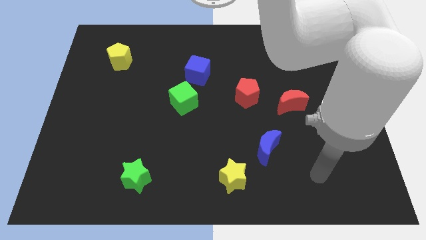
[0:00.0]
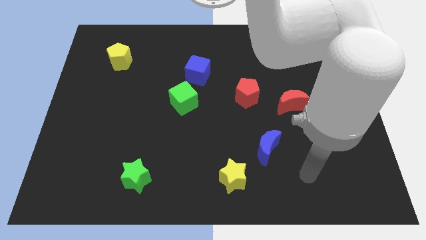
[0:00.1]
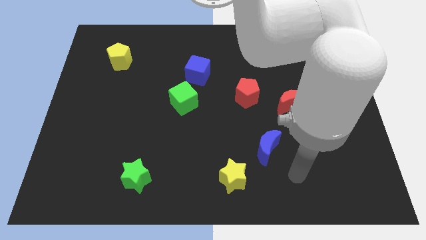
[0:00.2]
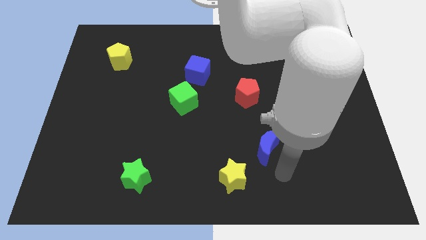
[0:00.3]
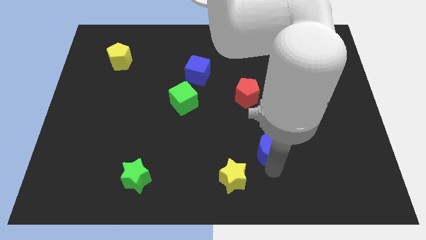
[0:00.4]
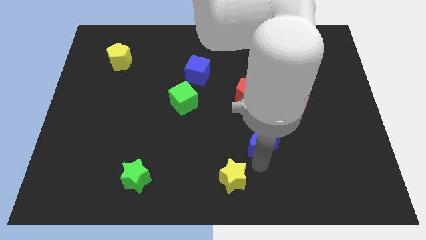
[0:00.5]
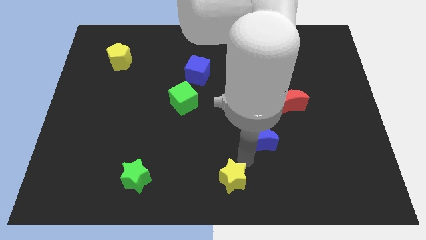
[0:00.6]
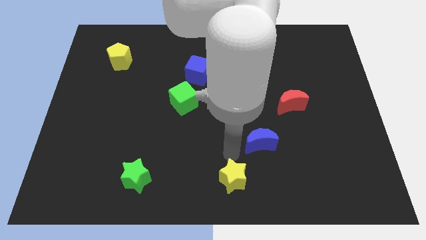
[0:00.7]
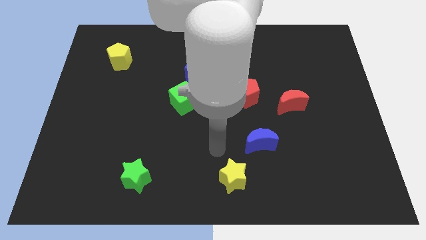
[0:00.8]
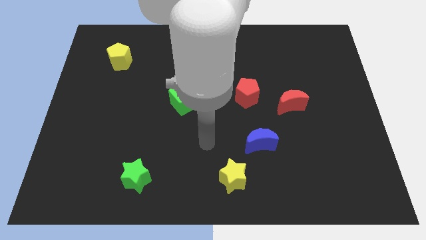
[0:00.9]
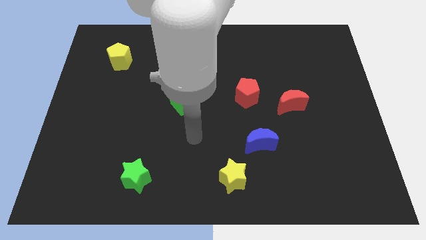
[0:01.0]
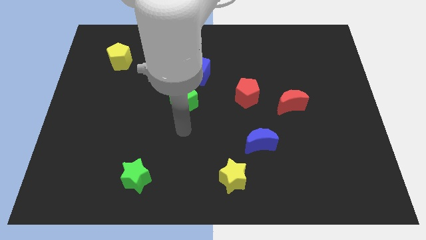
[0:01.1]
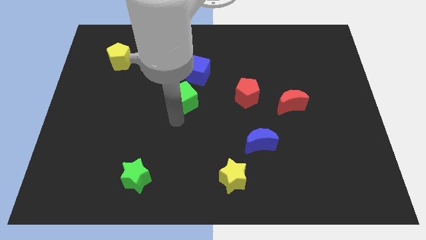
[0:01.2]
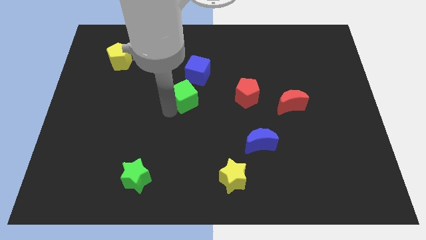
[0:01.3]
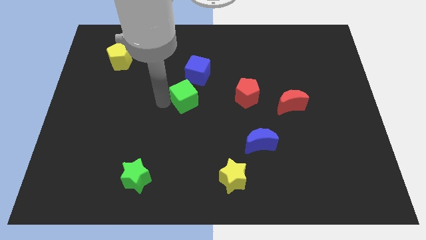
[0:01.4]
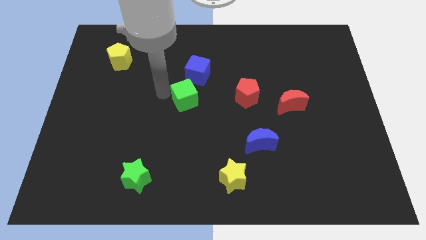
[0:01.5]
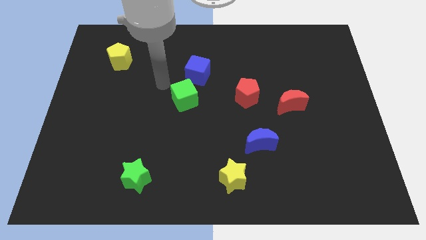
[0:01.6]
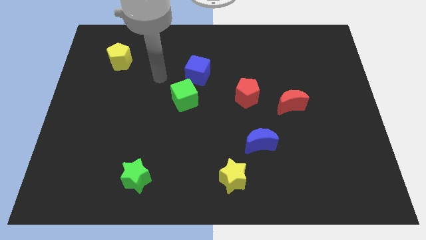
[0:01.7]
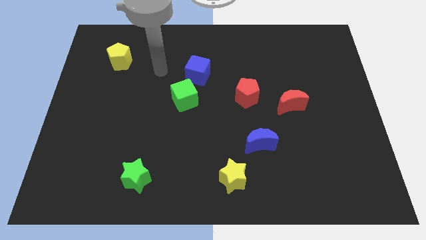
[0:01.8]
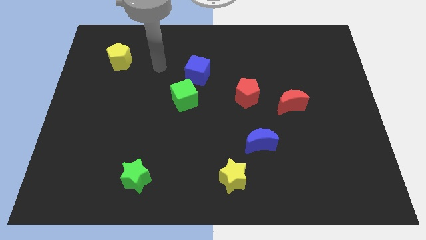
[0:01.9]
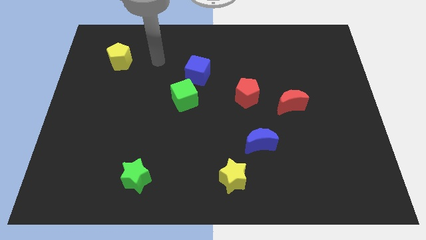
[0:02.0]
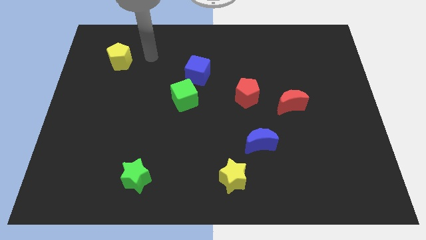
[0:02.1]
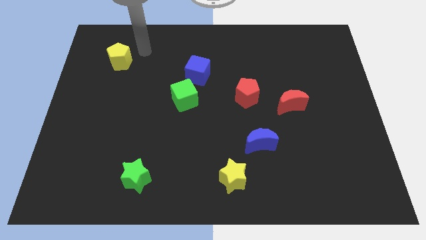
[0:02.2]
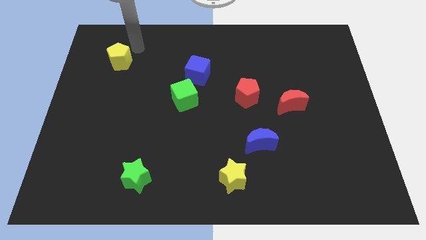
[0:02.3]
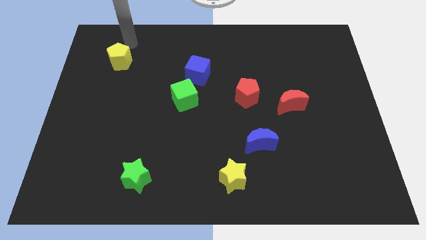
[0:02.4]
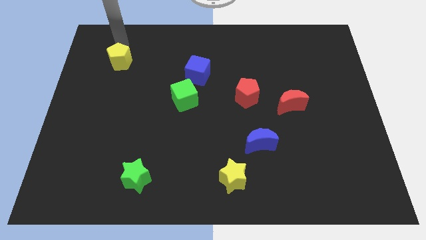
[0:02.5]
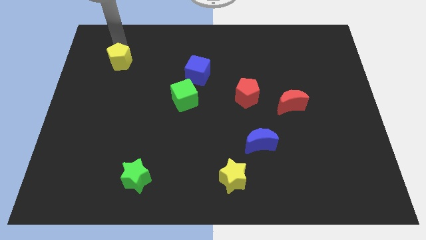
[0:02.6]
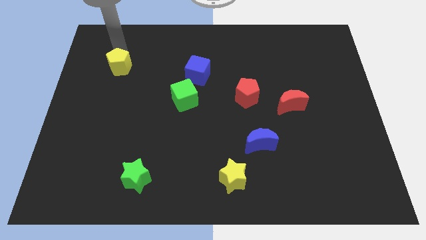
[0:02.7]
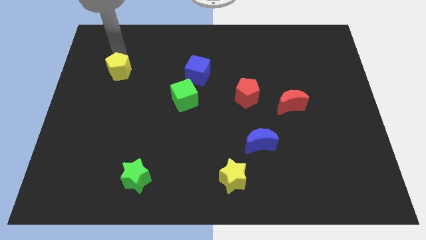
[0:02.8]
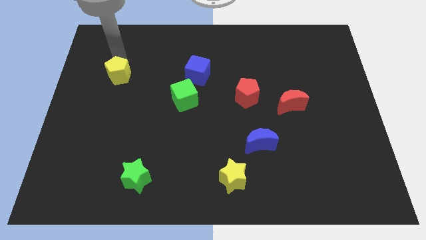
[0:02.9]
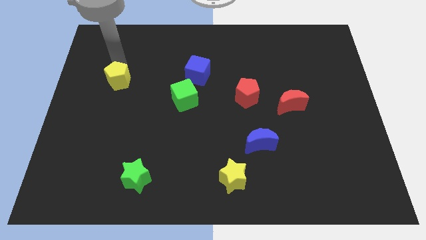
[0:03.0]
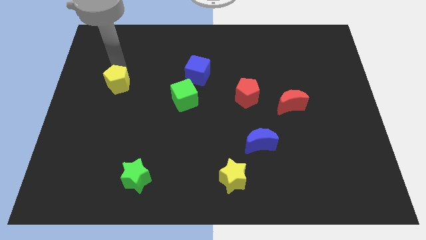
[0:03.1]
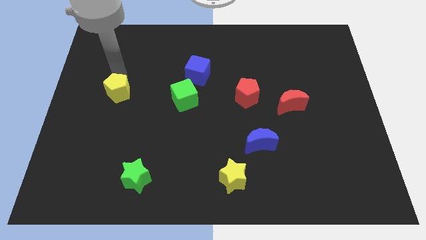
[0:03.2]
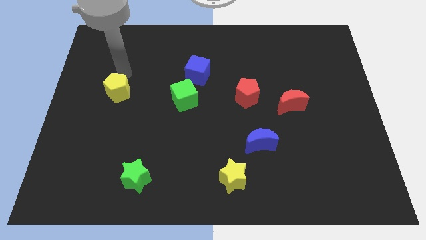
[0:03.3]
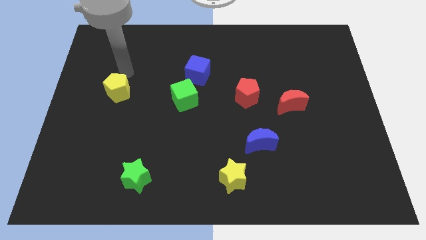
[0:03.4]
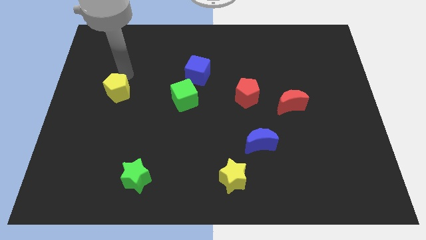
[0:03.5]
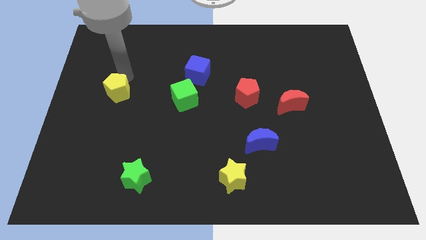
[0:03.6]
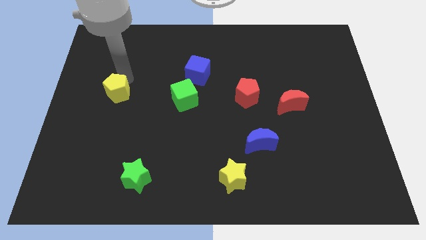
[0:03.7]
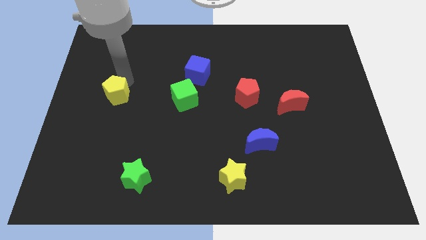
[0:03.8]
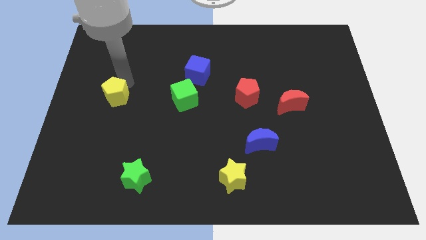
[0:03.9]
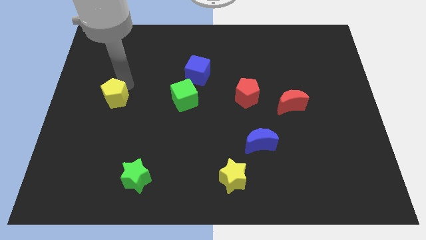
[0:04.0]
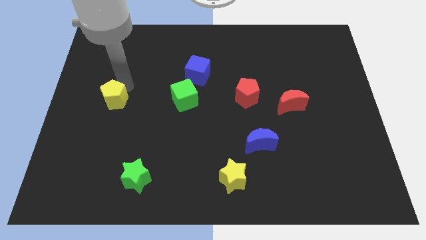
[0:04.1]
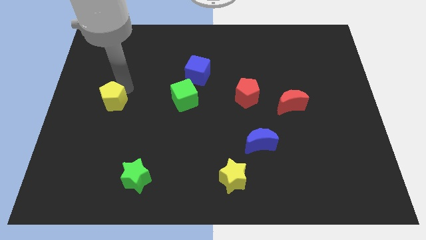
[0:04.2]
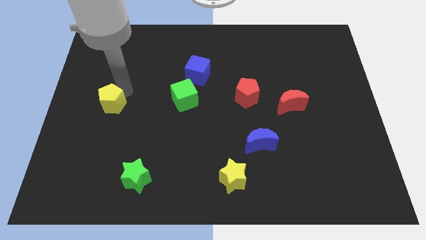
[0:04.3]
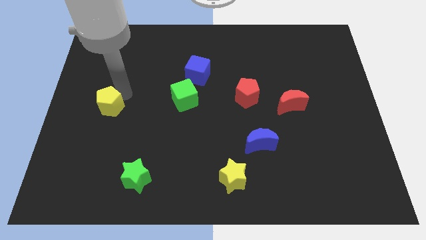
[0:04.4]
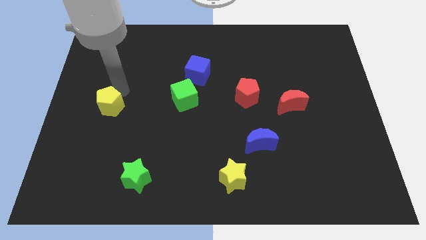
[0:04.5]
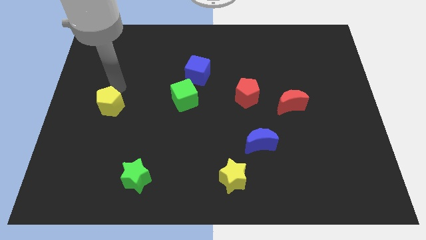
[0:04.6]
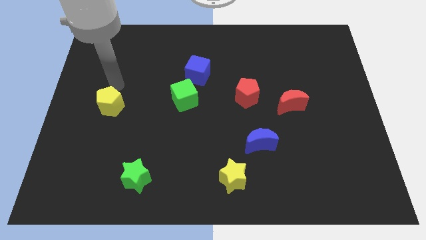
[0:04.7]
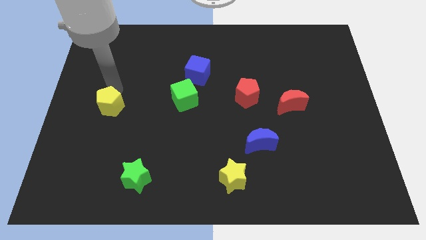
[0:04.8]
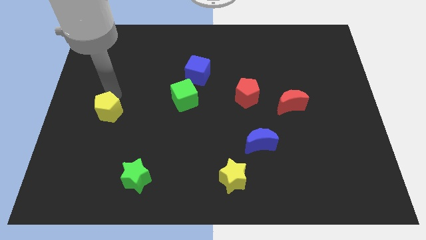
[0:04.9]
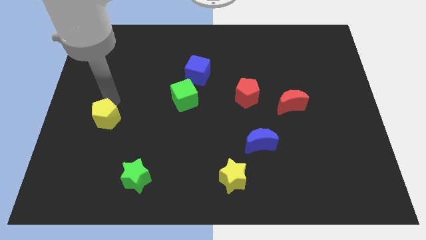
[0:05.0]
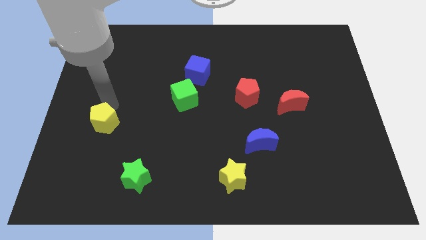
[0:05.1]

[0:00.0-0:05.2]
slide the yellow pentagon downwards

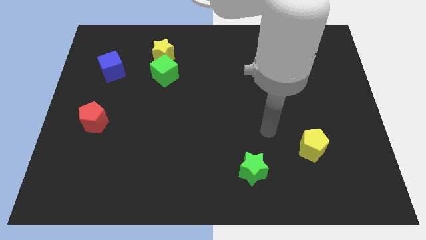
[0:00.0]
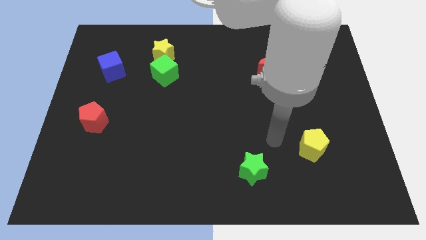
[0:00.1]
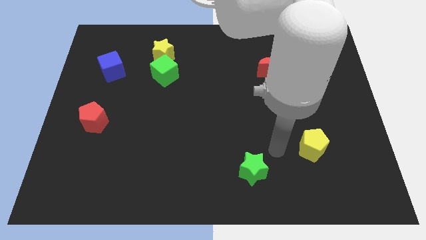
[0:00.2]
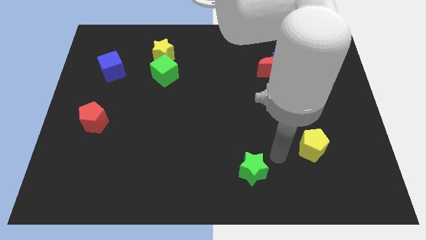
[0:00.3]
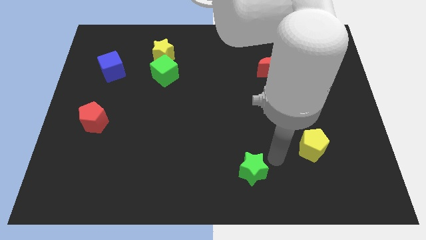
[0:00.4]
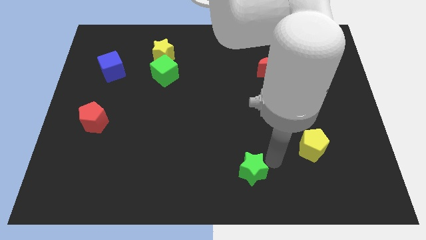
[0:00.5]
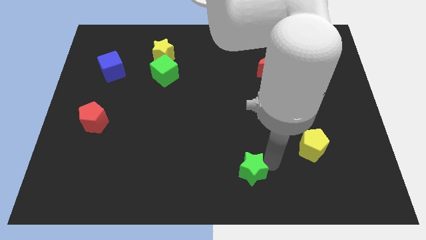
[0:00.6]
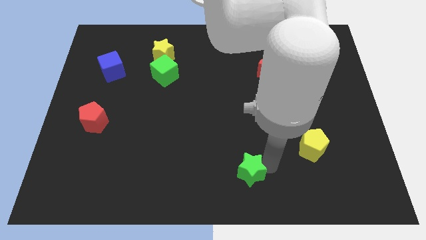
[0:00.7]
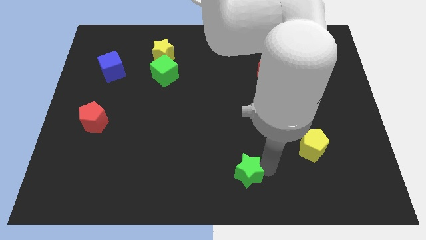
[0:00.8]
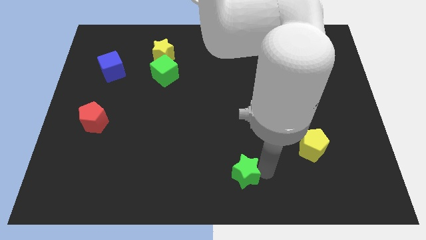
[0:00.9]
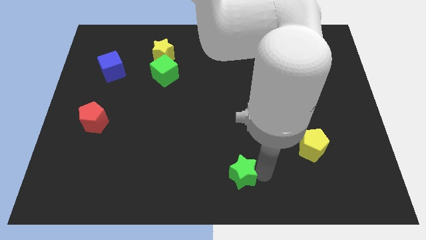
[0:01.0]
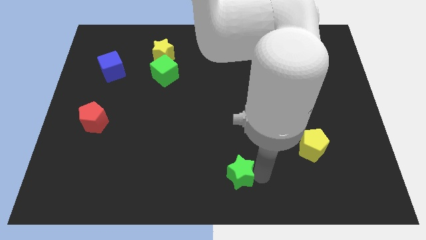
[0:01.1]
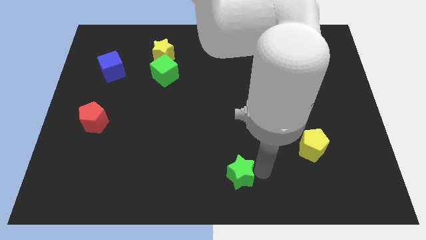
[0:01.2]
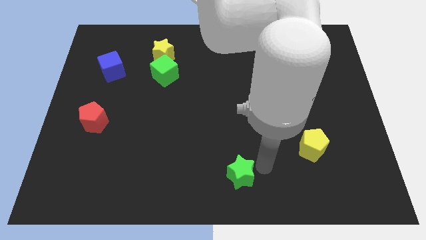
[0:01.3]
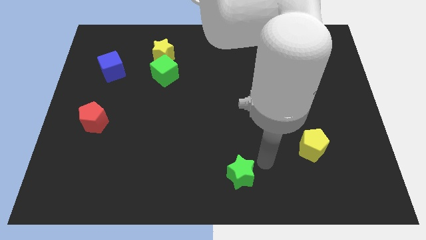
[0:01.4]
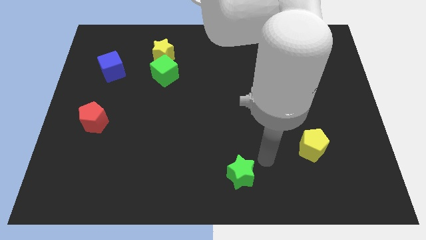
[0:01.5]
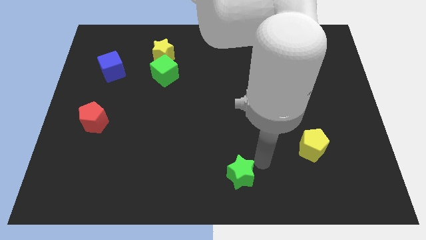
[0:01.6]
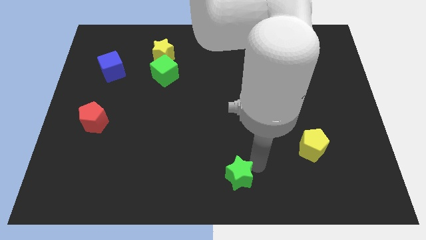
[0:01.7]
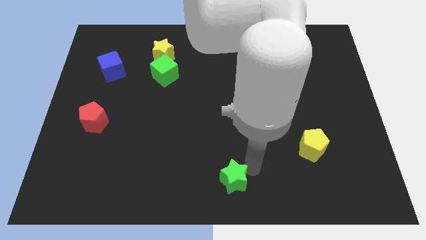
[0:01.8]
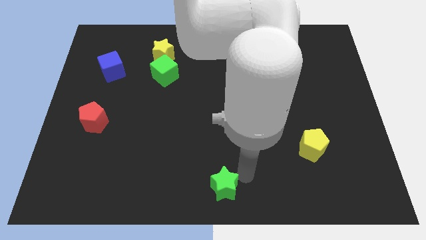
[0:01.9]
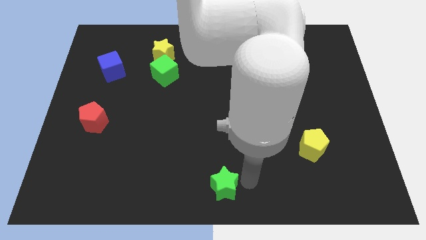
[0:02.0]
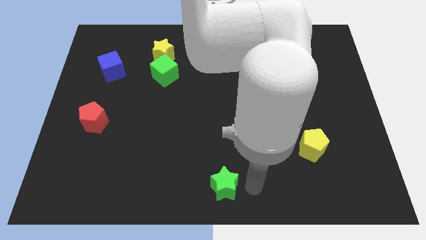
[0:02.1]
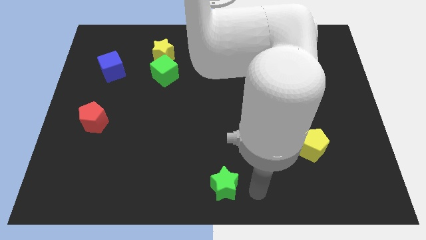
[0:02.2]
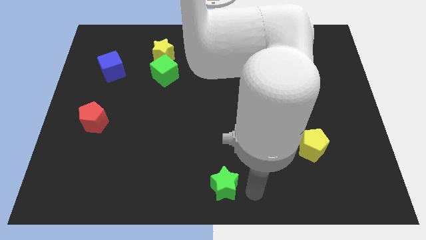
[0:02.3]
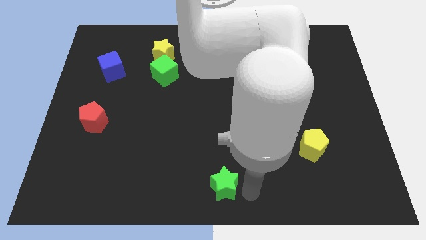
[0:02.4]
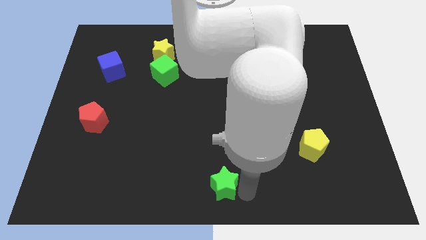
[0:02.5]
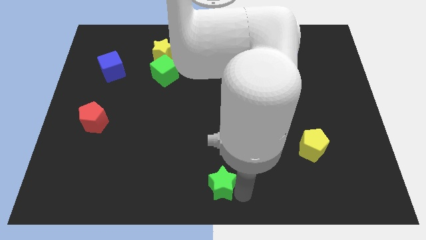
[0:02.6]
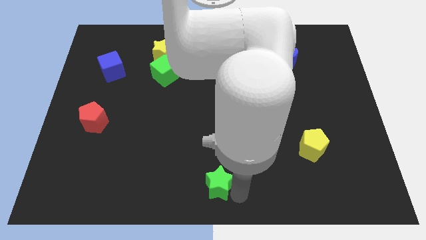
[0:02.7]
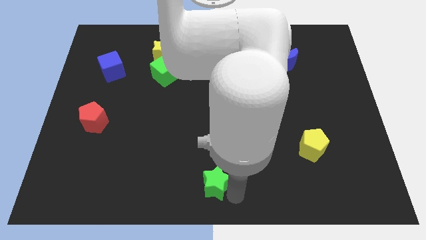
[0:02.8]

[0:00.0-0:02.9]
push the green star to the left a little
